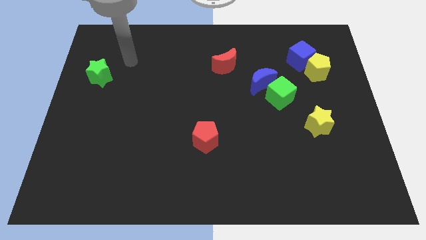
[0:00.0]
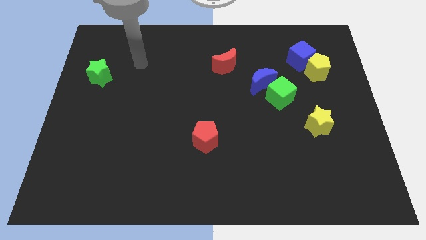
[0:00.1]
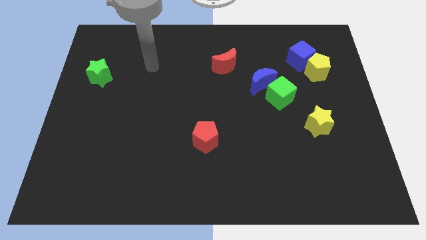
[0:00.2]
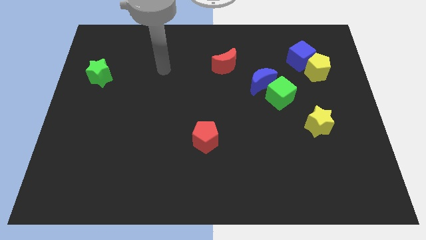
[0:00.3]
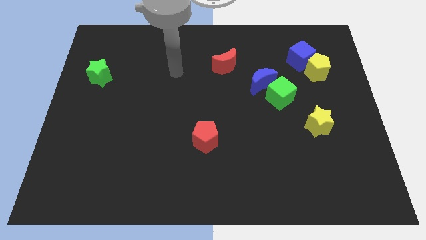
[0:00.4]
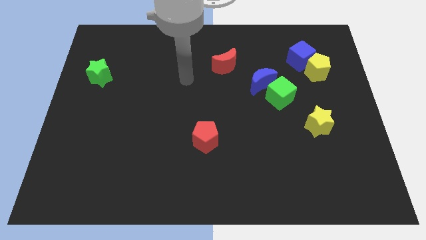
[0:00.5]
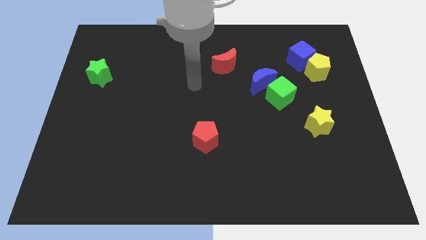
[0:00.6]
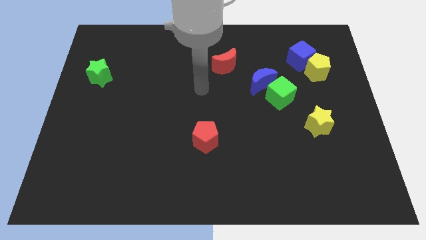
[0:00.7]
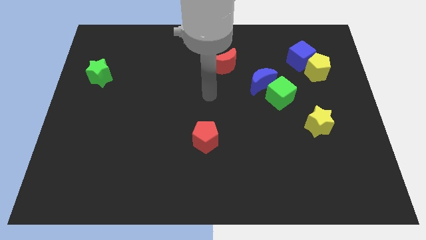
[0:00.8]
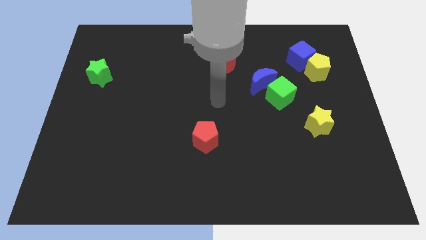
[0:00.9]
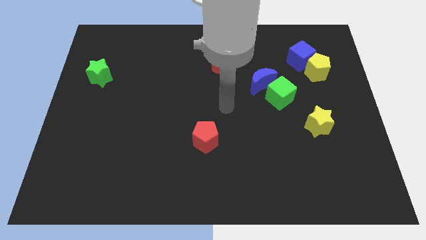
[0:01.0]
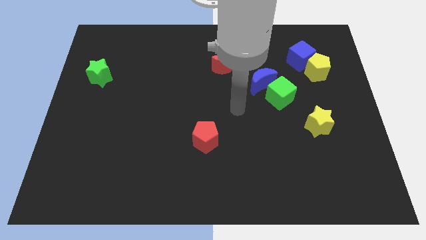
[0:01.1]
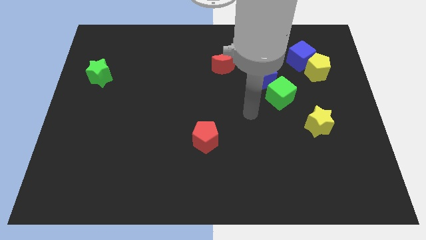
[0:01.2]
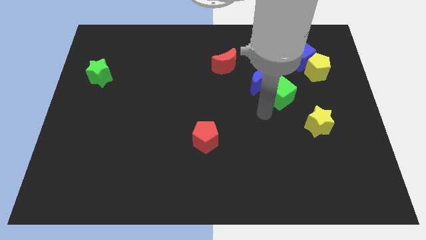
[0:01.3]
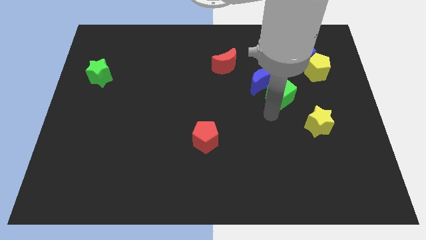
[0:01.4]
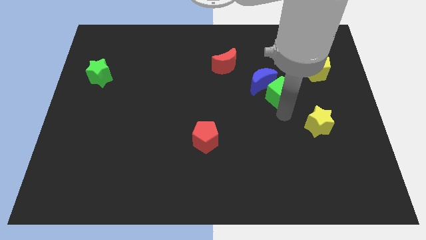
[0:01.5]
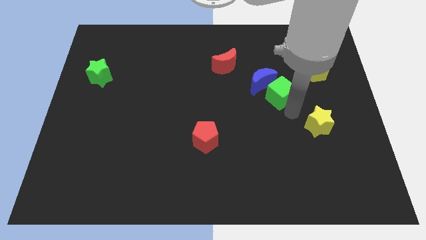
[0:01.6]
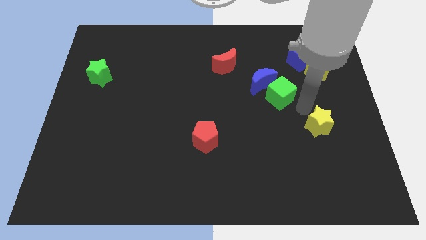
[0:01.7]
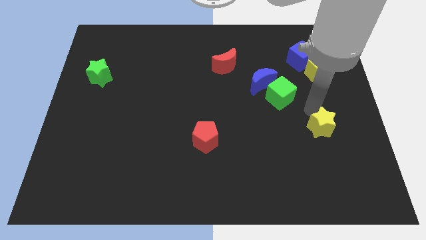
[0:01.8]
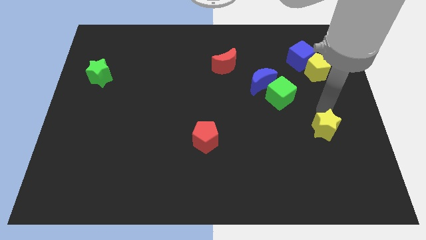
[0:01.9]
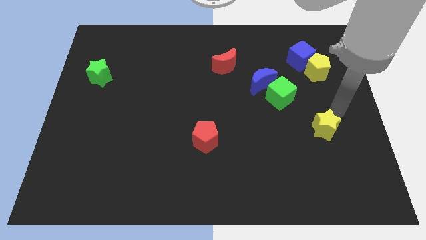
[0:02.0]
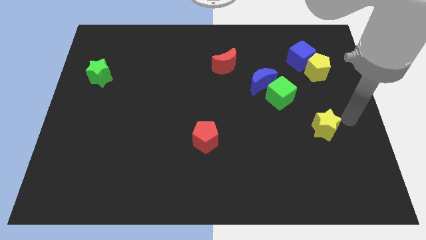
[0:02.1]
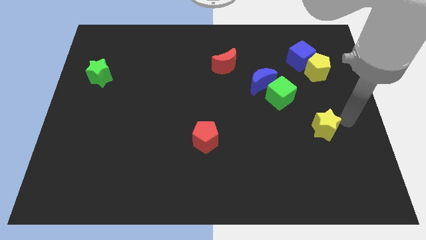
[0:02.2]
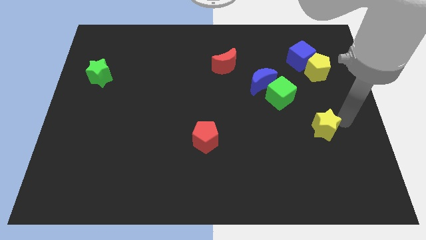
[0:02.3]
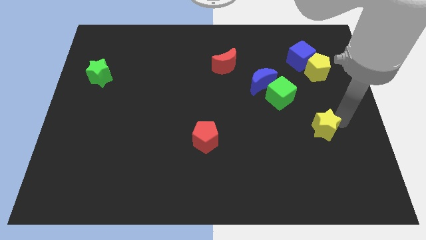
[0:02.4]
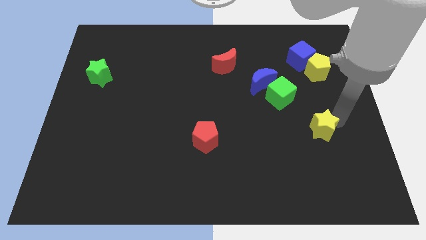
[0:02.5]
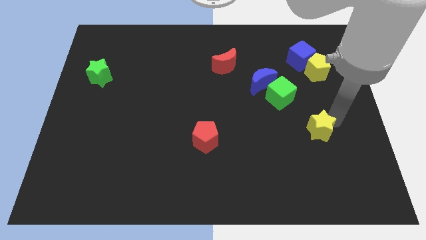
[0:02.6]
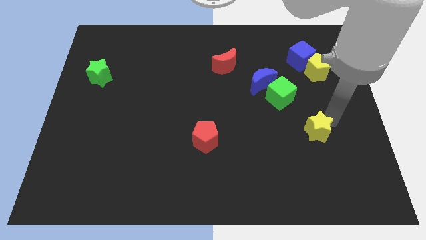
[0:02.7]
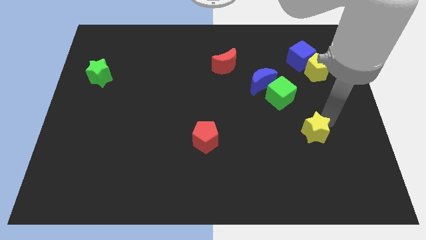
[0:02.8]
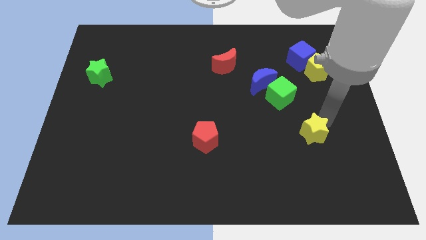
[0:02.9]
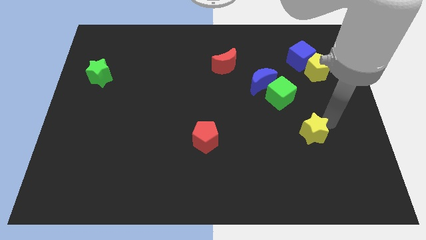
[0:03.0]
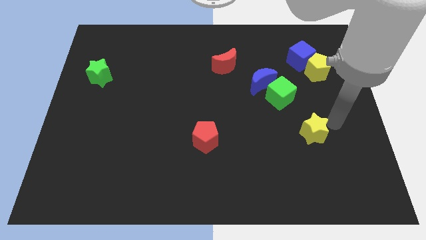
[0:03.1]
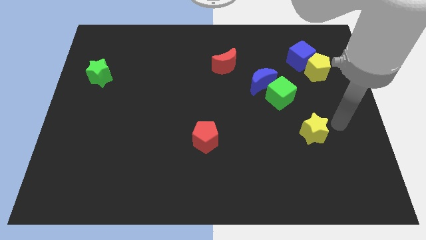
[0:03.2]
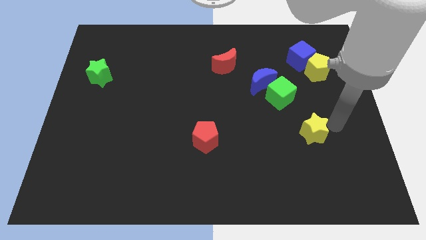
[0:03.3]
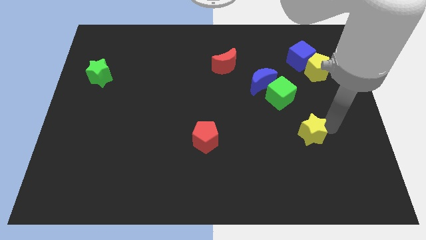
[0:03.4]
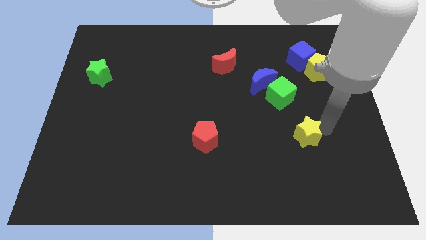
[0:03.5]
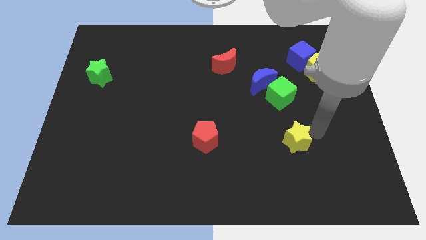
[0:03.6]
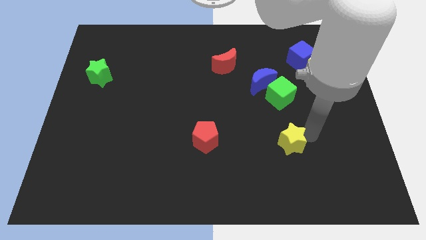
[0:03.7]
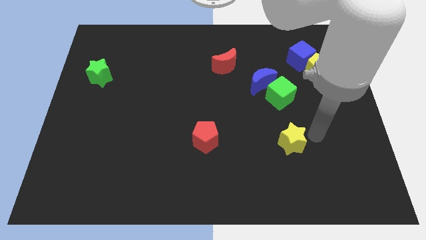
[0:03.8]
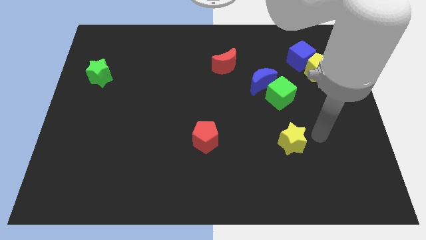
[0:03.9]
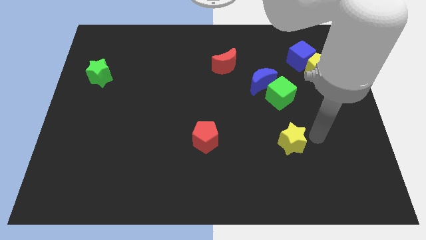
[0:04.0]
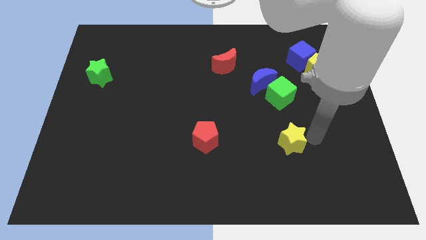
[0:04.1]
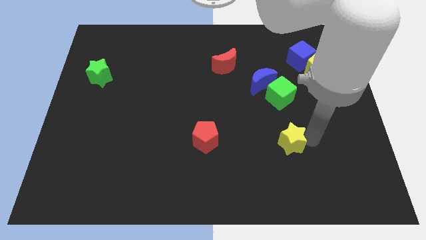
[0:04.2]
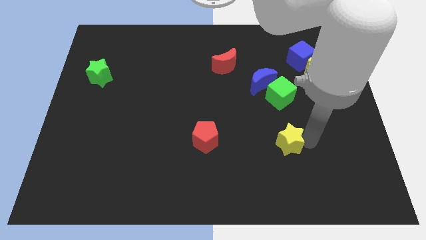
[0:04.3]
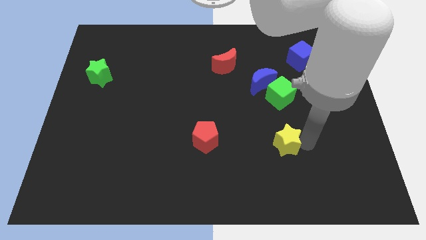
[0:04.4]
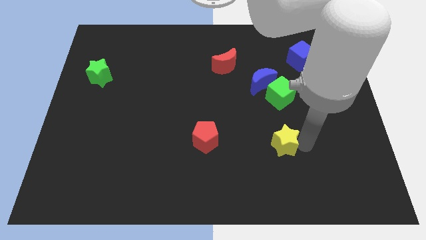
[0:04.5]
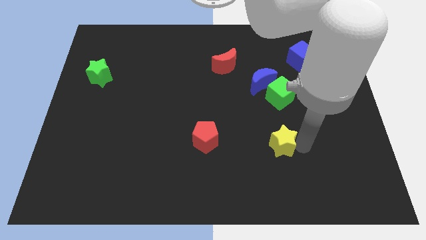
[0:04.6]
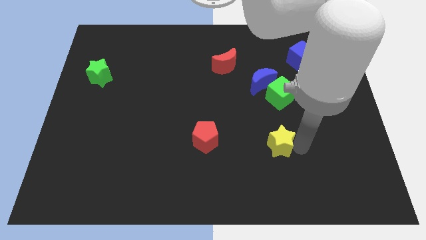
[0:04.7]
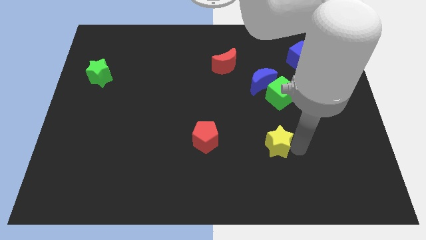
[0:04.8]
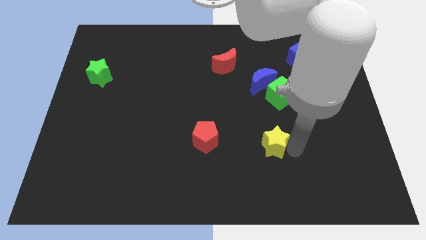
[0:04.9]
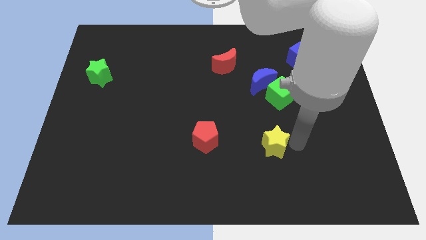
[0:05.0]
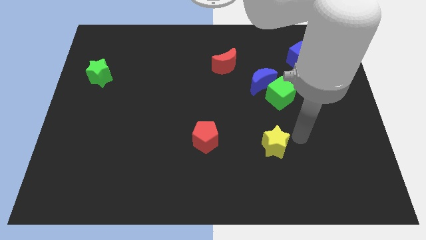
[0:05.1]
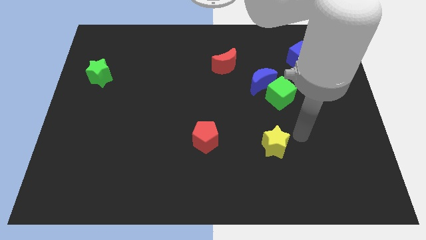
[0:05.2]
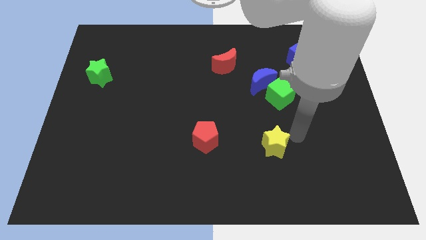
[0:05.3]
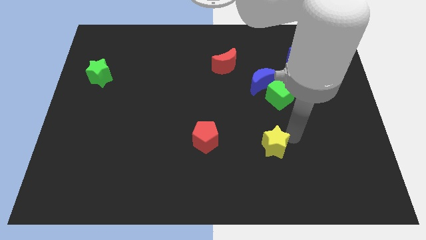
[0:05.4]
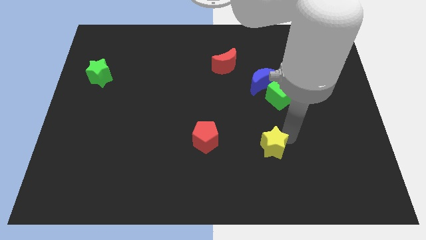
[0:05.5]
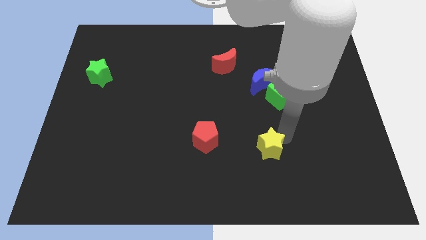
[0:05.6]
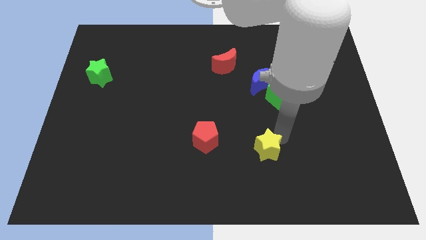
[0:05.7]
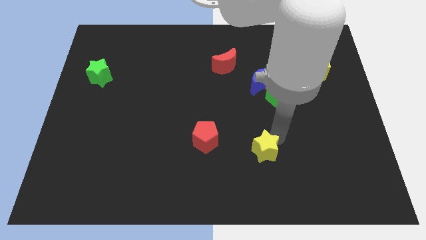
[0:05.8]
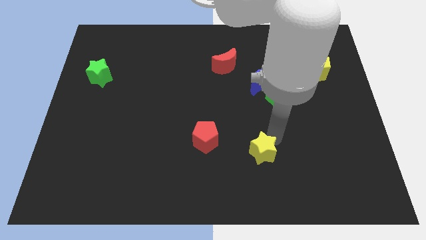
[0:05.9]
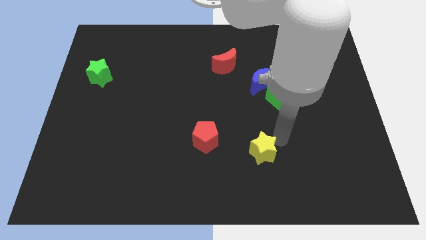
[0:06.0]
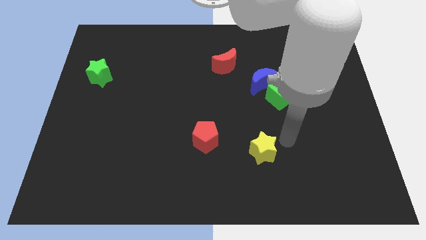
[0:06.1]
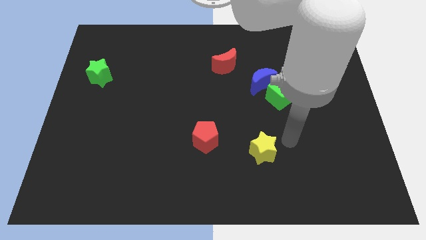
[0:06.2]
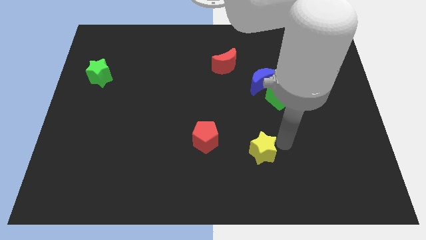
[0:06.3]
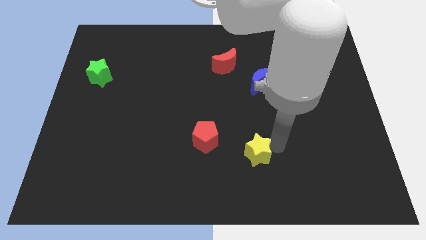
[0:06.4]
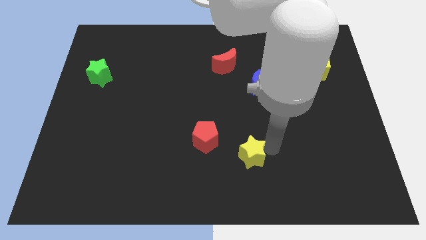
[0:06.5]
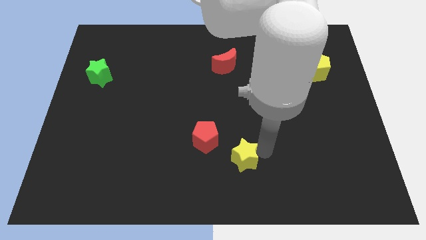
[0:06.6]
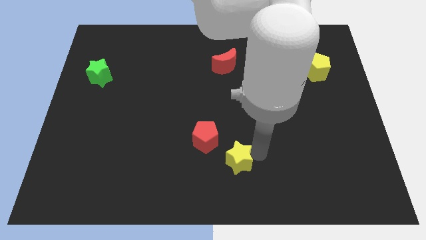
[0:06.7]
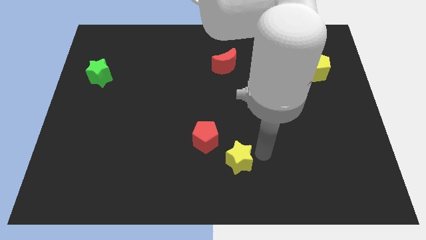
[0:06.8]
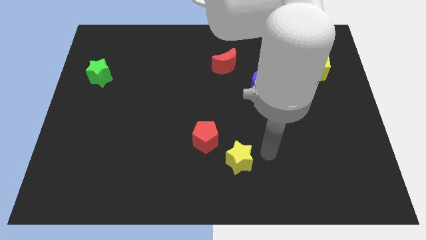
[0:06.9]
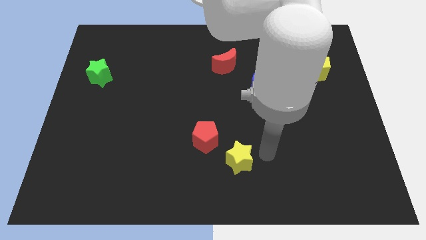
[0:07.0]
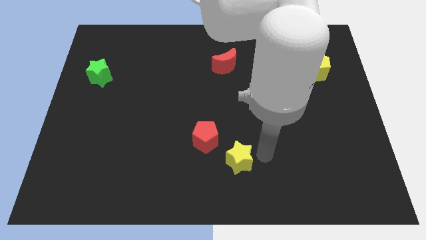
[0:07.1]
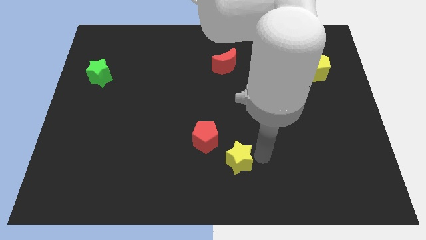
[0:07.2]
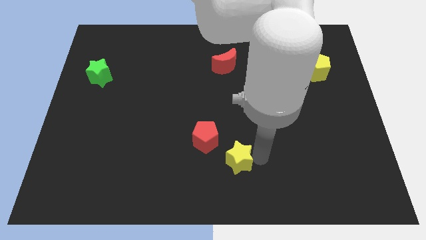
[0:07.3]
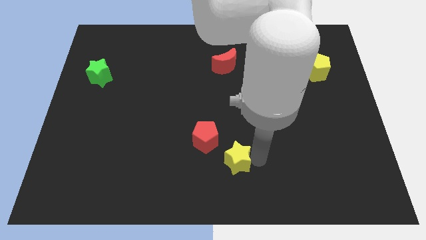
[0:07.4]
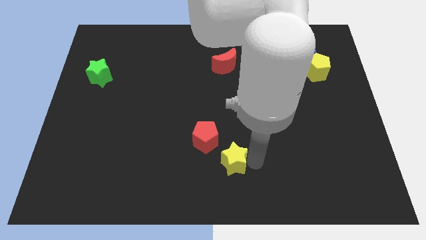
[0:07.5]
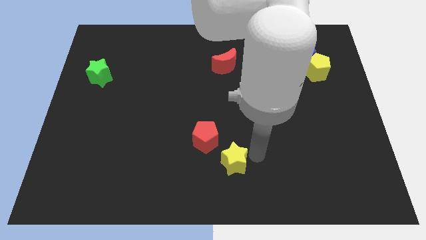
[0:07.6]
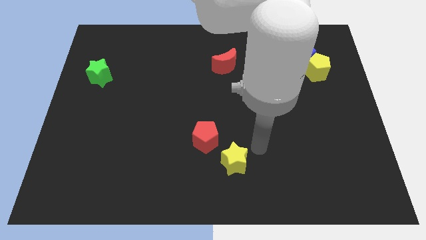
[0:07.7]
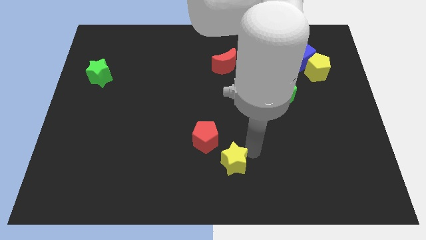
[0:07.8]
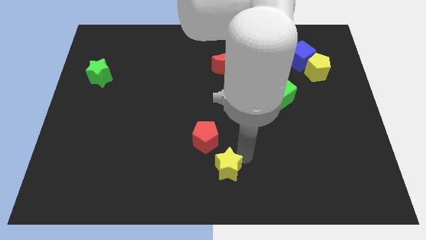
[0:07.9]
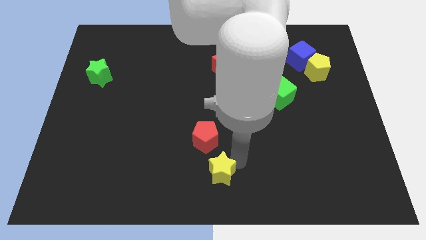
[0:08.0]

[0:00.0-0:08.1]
move the yellow star to the bottom side of the red pentagon
